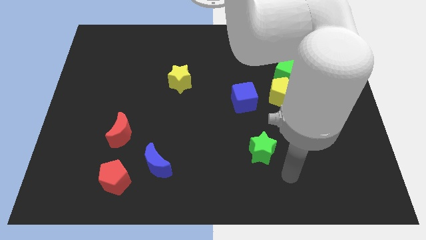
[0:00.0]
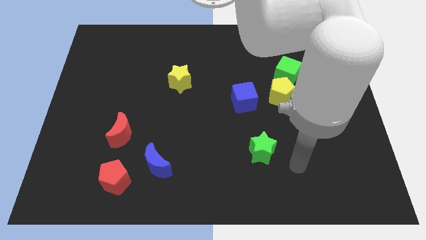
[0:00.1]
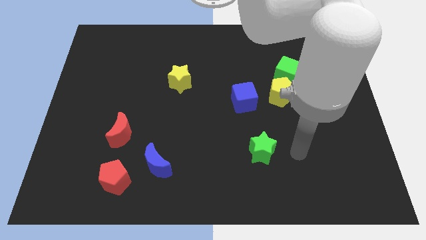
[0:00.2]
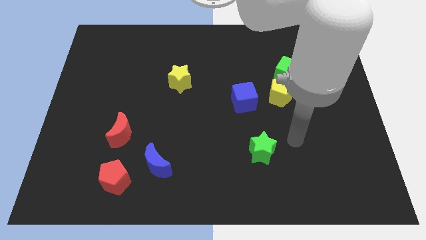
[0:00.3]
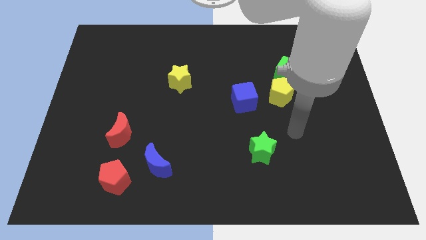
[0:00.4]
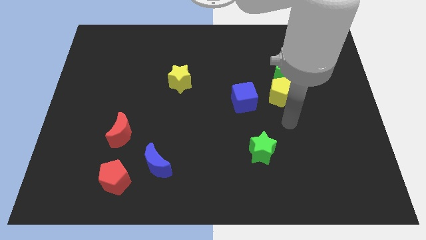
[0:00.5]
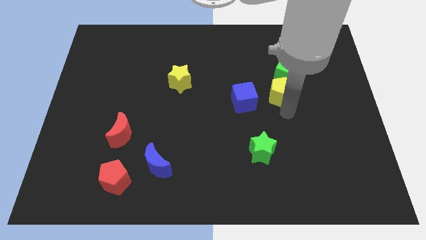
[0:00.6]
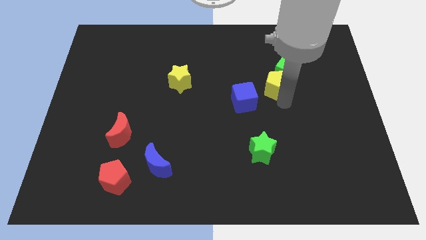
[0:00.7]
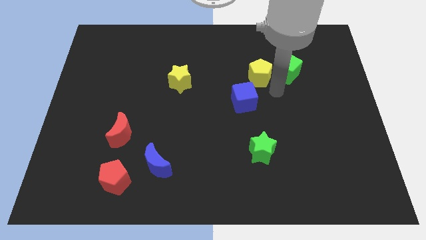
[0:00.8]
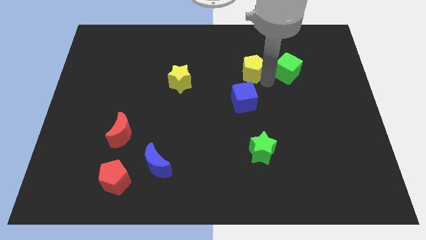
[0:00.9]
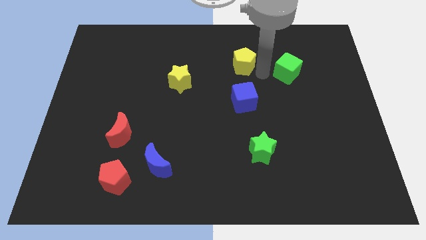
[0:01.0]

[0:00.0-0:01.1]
pull the green cube apart from the yellow pentagon

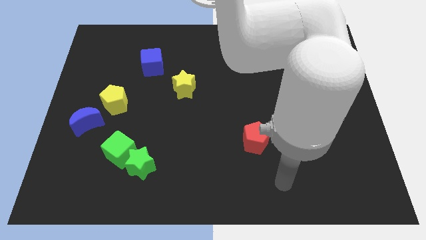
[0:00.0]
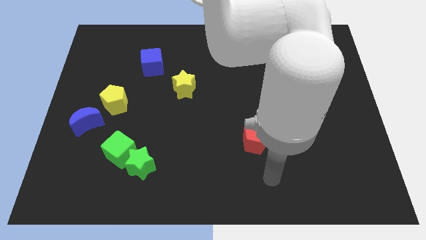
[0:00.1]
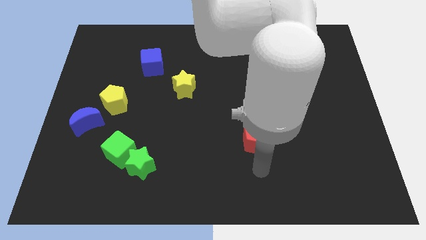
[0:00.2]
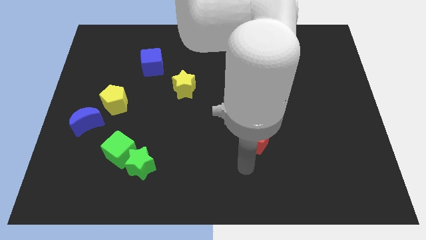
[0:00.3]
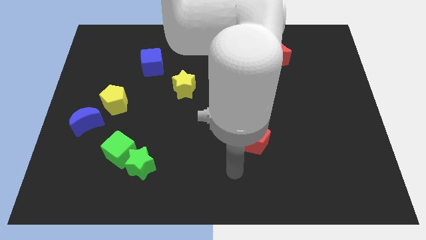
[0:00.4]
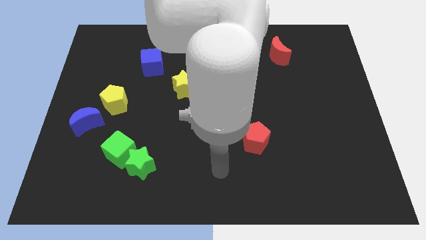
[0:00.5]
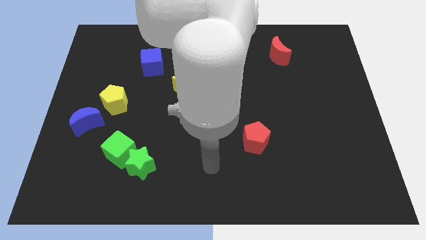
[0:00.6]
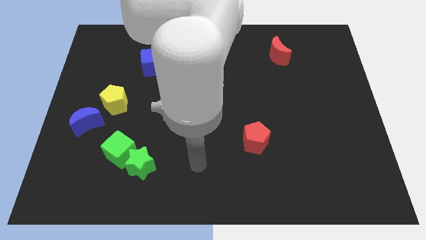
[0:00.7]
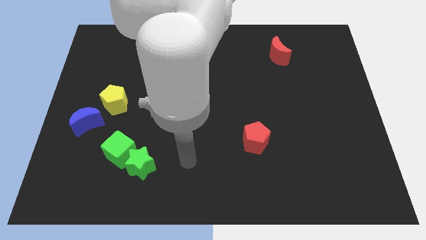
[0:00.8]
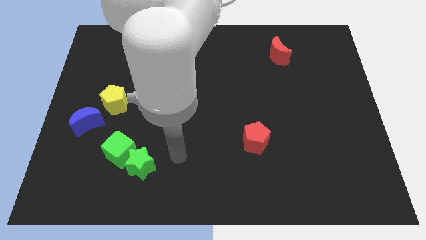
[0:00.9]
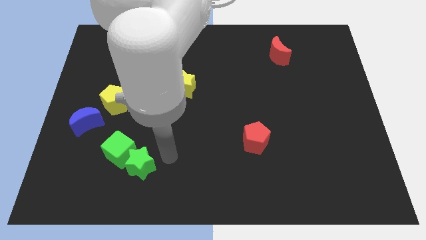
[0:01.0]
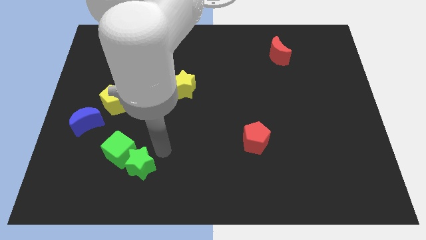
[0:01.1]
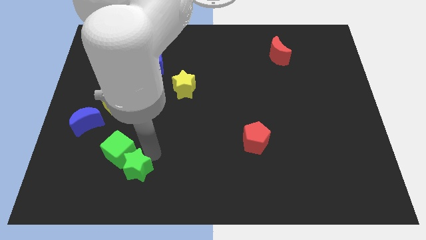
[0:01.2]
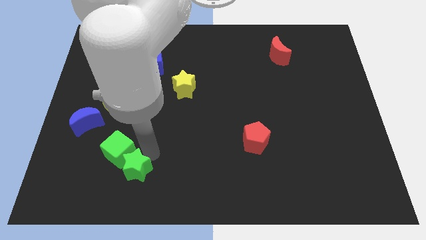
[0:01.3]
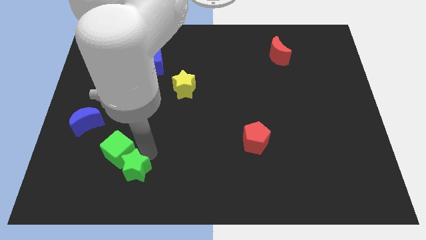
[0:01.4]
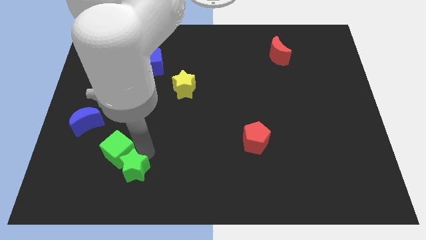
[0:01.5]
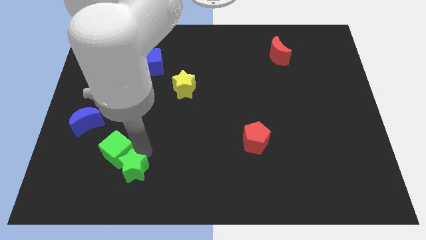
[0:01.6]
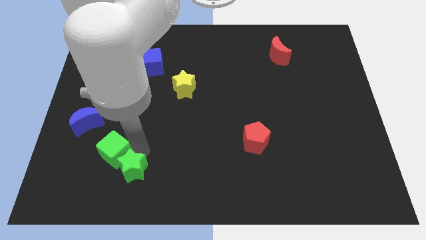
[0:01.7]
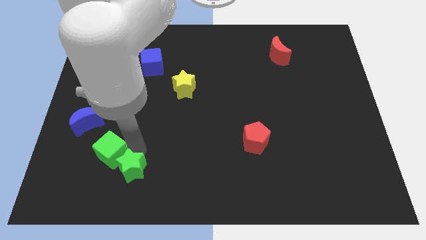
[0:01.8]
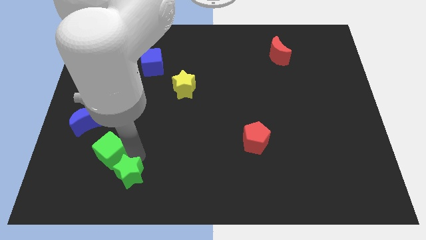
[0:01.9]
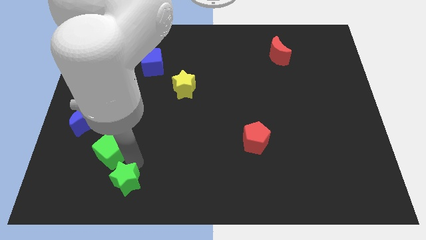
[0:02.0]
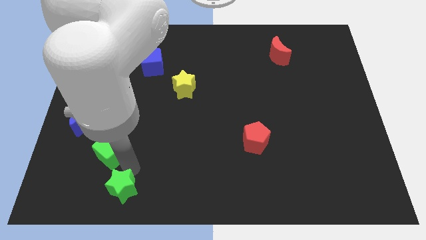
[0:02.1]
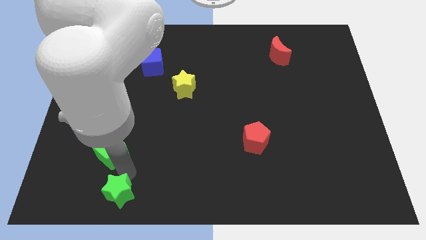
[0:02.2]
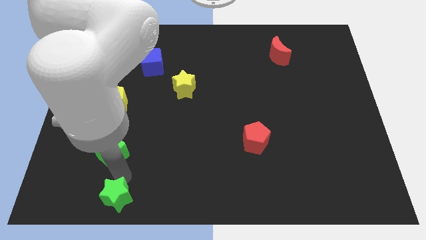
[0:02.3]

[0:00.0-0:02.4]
move the green cube away from the green star

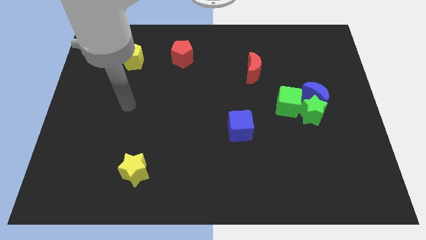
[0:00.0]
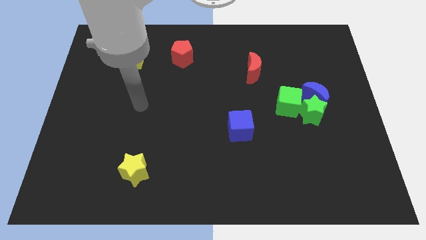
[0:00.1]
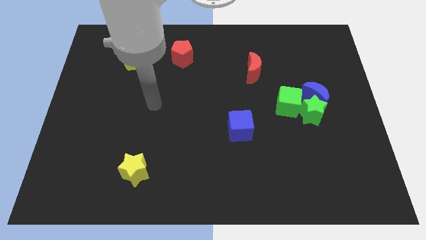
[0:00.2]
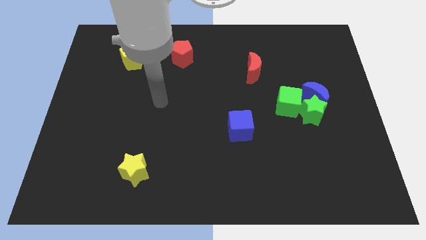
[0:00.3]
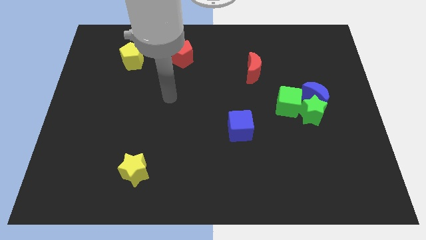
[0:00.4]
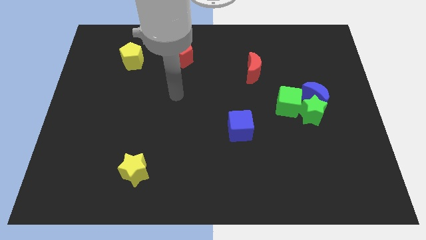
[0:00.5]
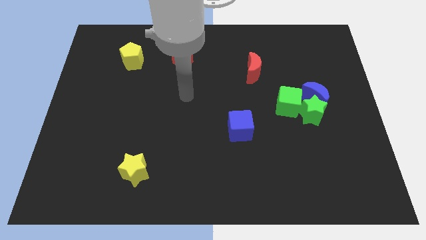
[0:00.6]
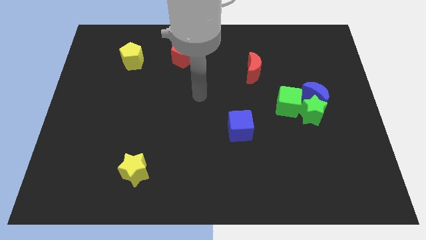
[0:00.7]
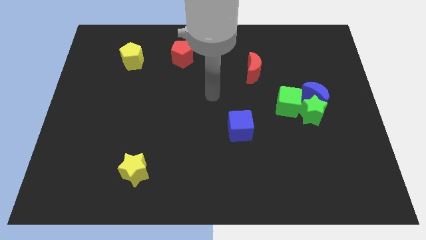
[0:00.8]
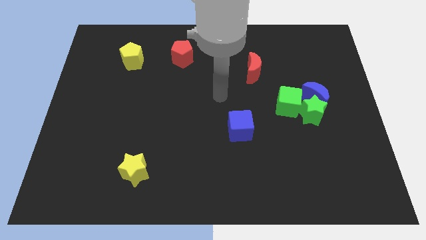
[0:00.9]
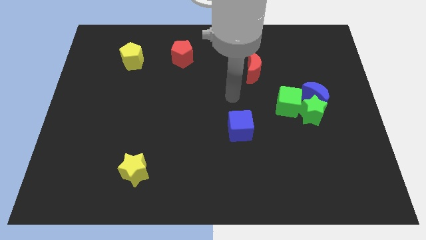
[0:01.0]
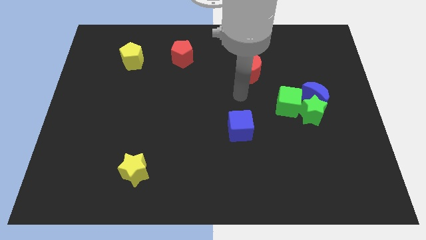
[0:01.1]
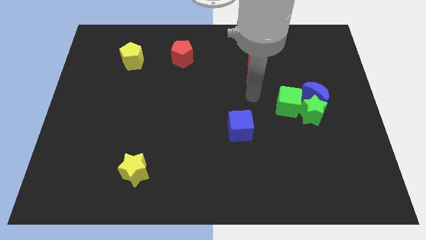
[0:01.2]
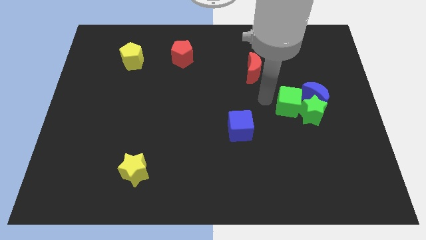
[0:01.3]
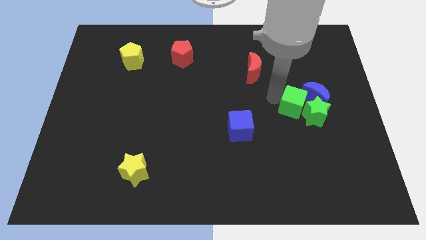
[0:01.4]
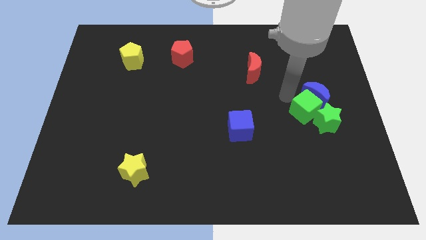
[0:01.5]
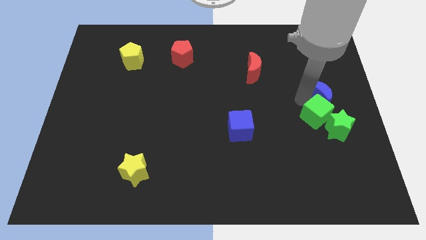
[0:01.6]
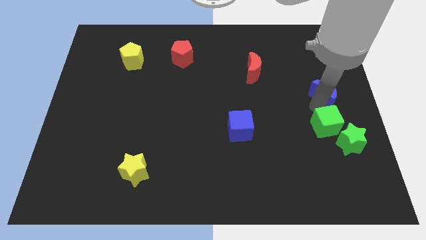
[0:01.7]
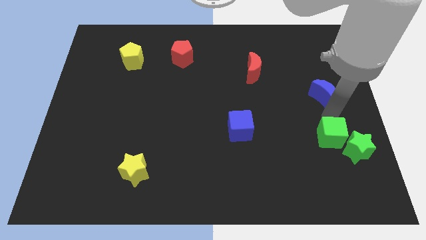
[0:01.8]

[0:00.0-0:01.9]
separate the green star from the blue moon and green cube

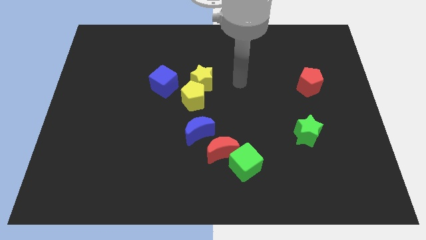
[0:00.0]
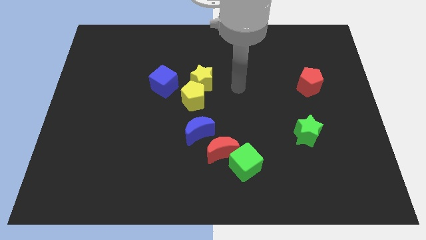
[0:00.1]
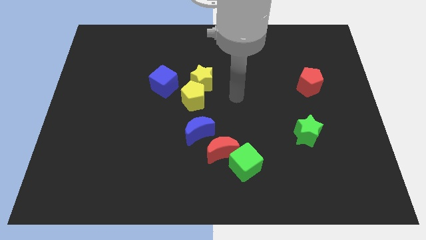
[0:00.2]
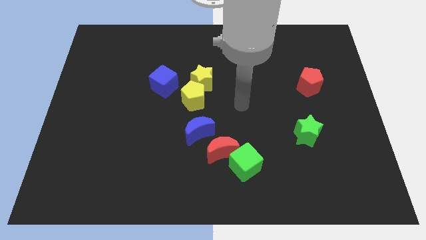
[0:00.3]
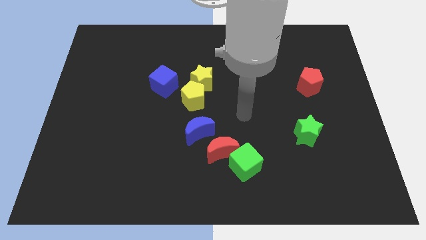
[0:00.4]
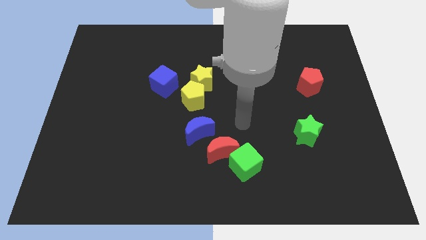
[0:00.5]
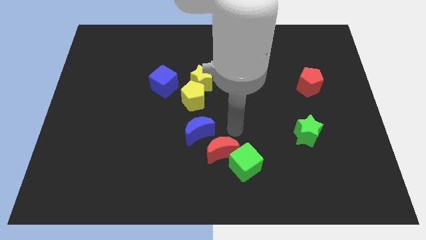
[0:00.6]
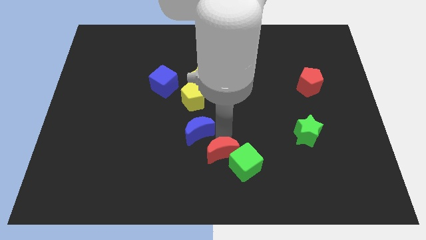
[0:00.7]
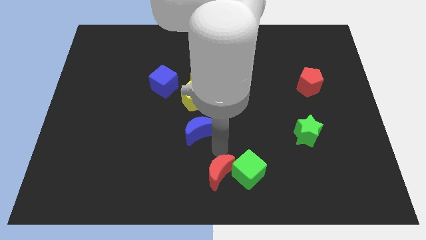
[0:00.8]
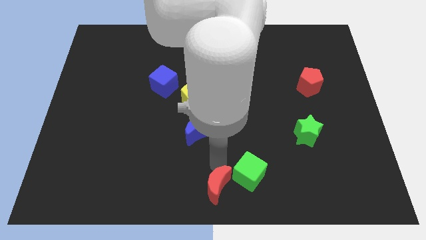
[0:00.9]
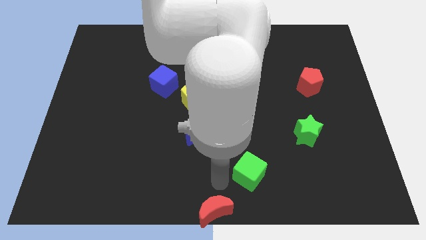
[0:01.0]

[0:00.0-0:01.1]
pull the green cube apart from the red moon

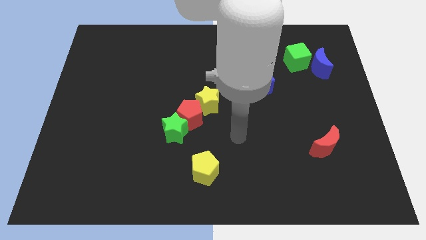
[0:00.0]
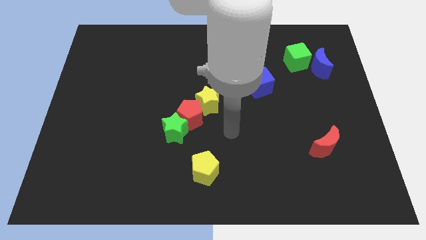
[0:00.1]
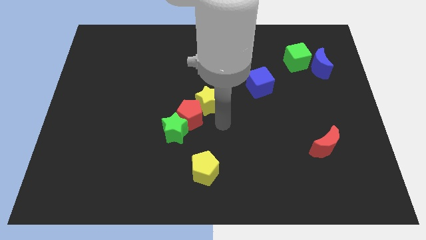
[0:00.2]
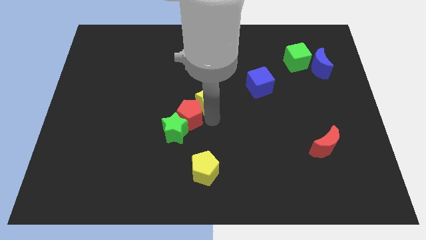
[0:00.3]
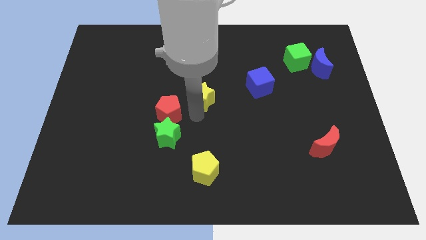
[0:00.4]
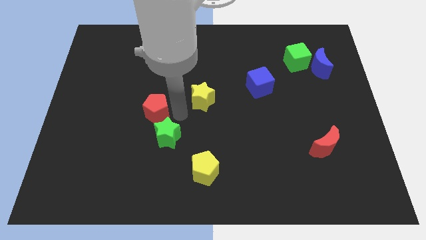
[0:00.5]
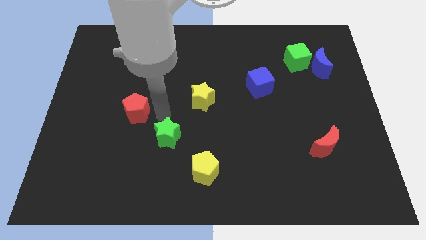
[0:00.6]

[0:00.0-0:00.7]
move the green star away from the red pentagon

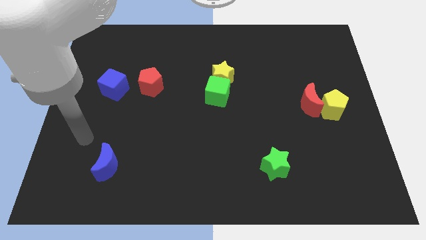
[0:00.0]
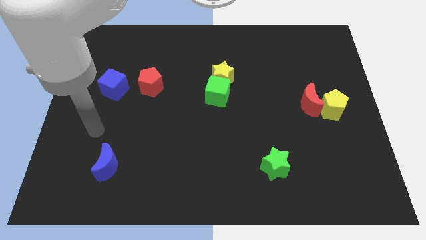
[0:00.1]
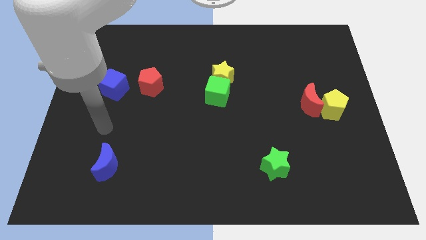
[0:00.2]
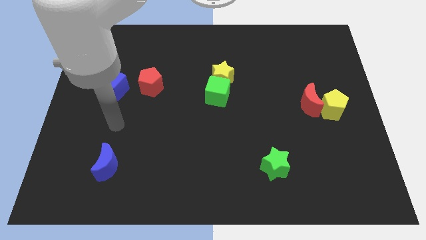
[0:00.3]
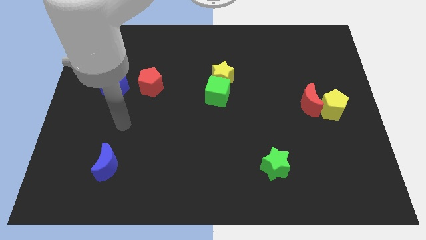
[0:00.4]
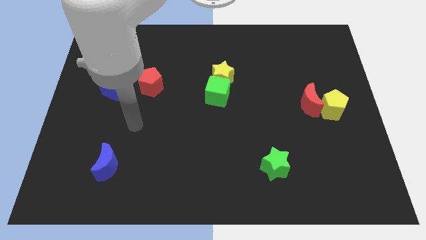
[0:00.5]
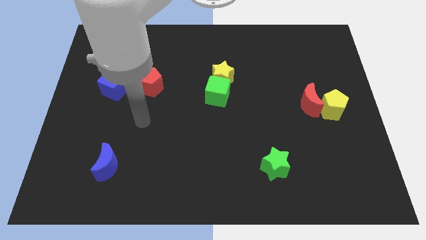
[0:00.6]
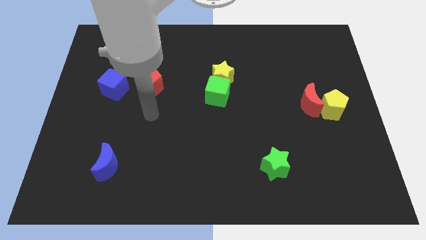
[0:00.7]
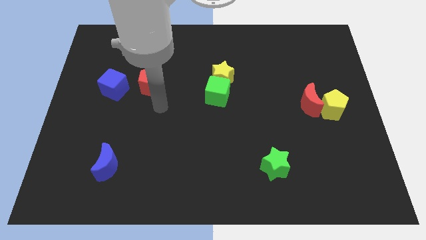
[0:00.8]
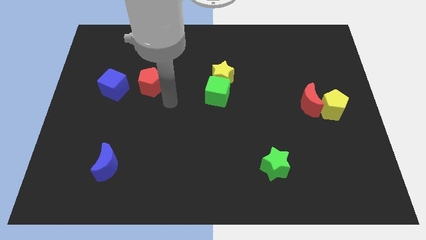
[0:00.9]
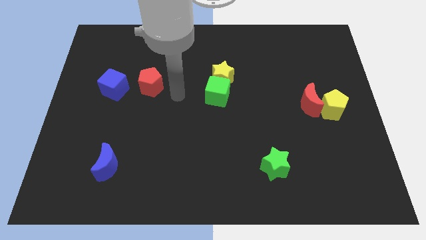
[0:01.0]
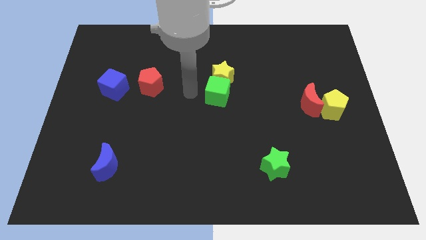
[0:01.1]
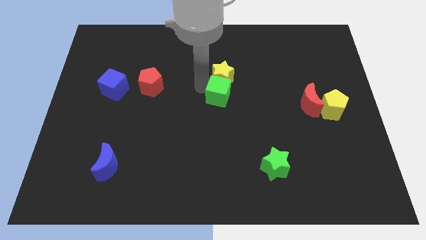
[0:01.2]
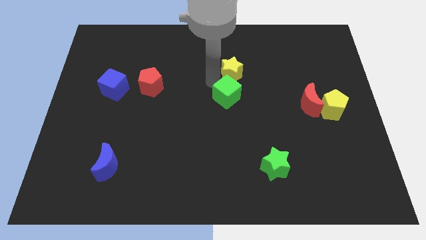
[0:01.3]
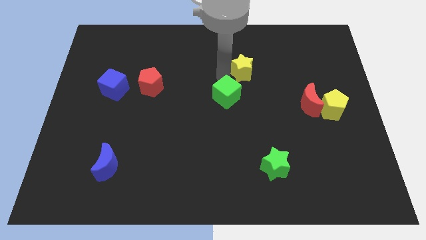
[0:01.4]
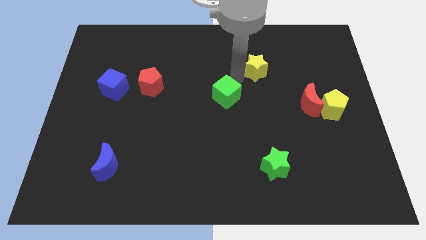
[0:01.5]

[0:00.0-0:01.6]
move the green cube away from the yellow star

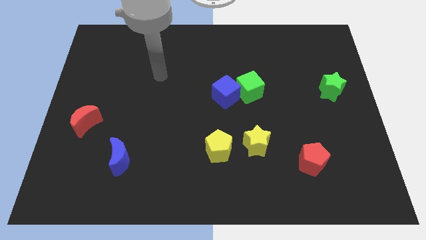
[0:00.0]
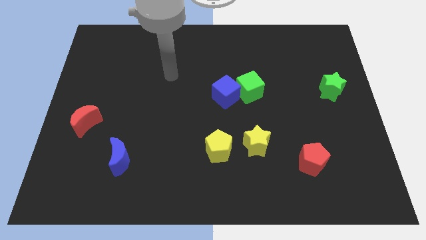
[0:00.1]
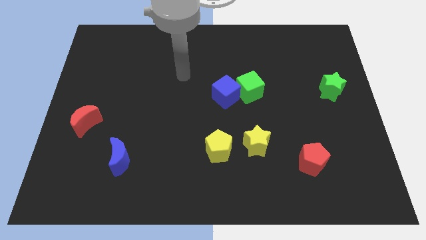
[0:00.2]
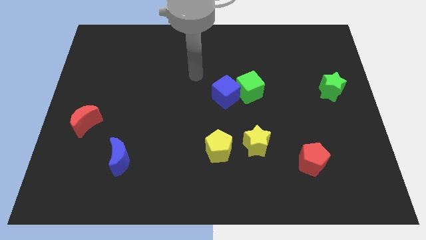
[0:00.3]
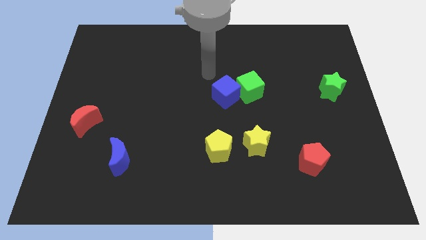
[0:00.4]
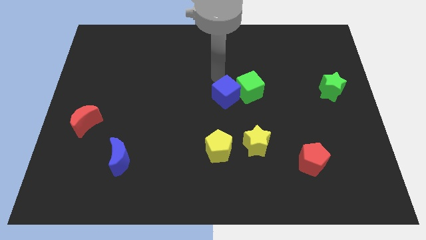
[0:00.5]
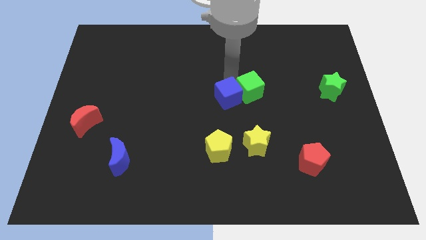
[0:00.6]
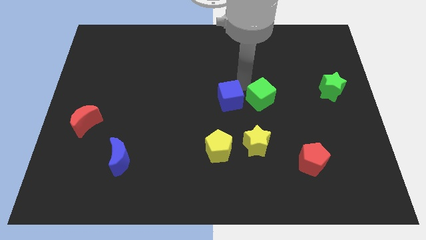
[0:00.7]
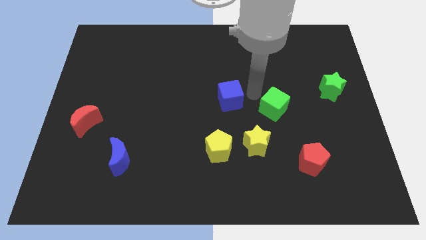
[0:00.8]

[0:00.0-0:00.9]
move the blue cube away from the green cube
